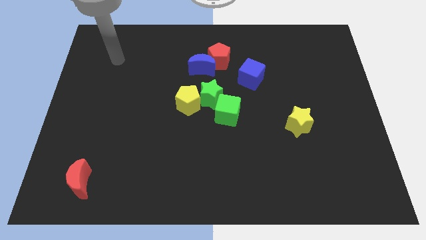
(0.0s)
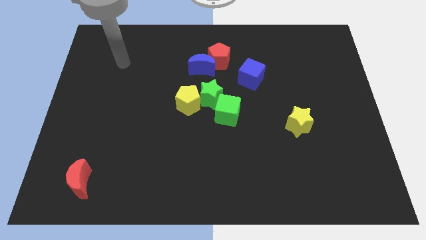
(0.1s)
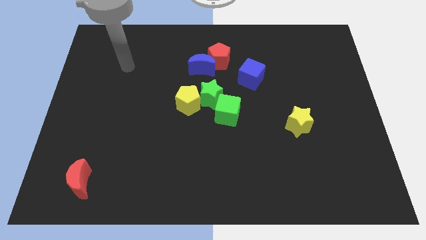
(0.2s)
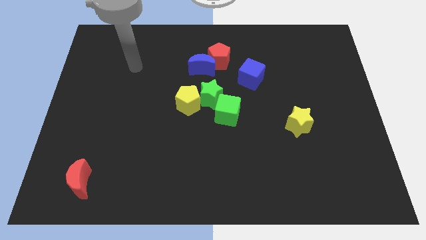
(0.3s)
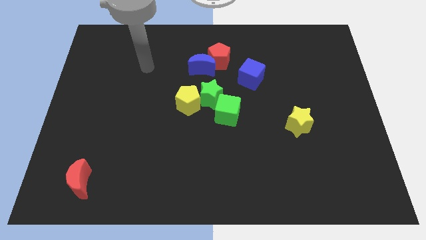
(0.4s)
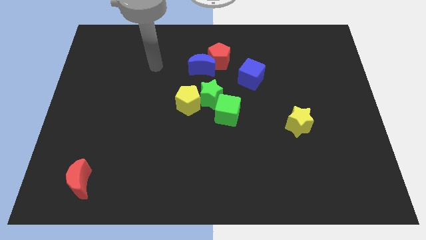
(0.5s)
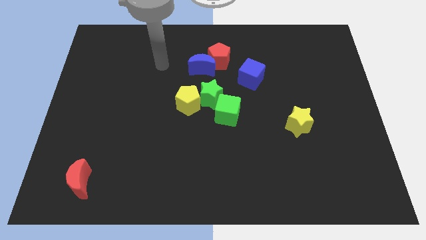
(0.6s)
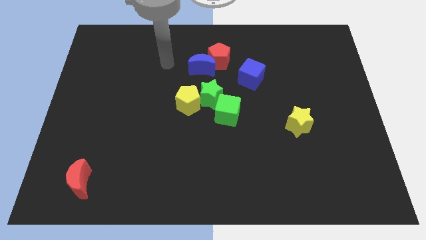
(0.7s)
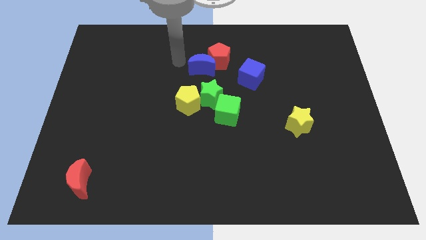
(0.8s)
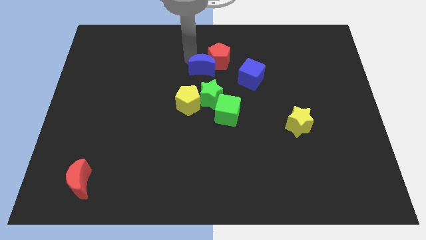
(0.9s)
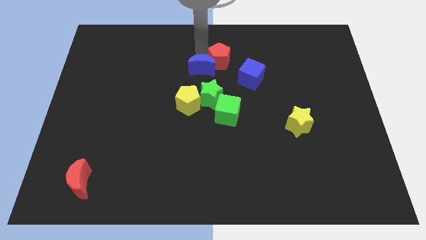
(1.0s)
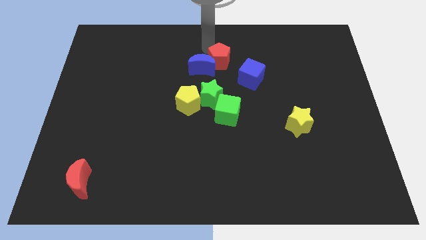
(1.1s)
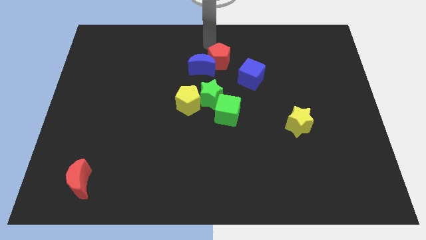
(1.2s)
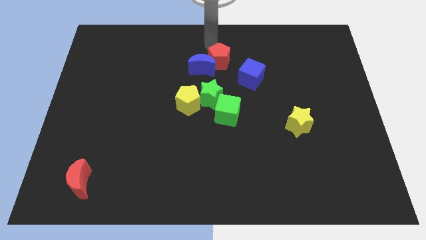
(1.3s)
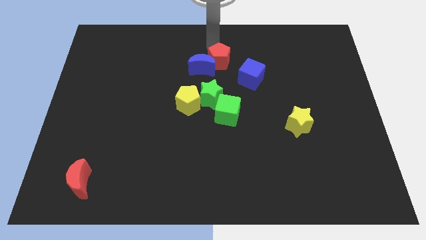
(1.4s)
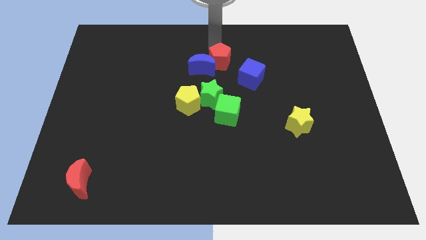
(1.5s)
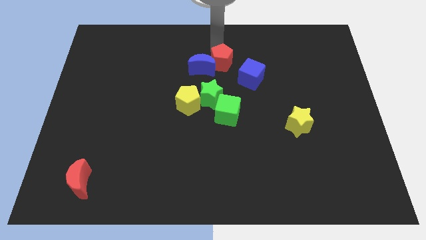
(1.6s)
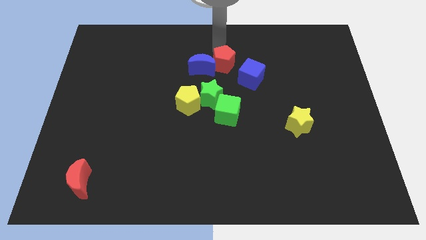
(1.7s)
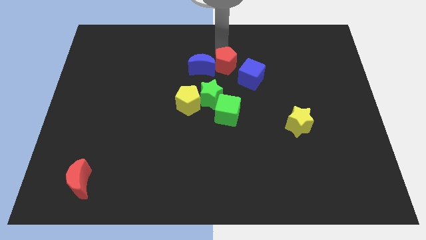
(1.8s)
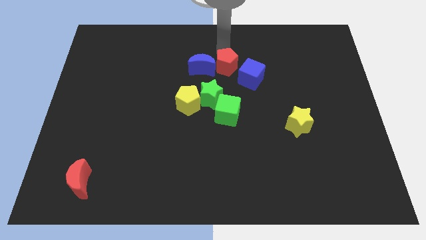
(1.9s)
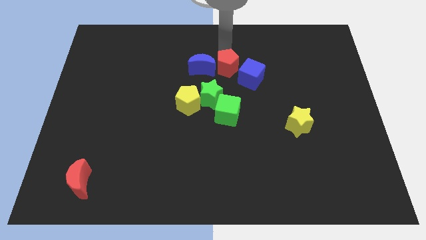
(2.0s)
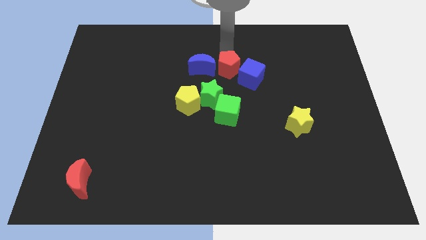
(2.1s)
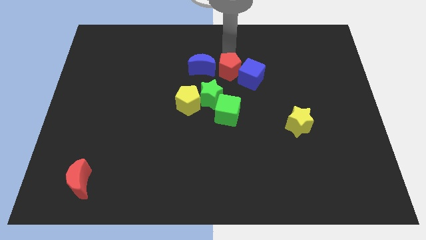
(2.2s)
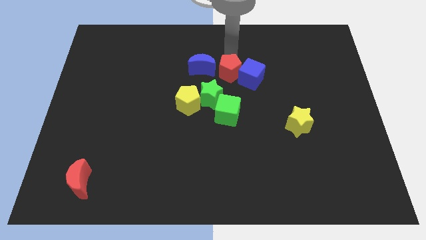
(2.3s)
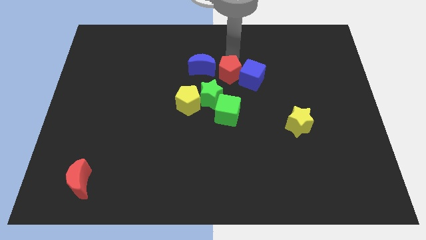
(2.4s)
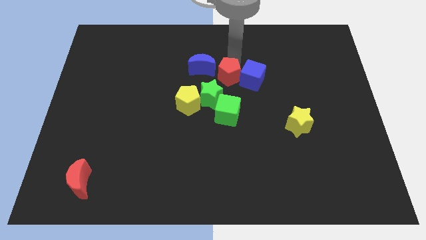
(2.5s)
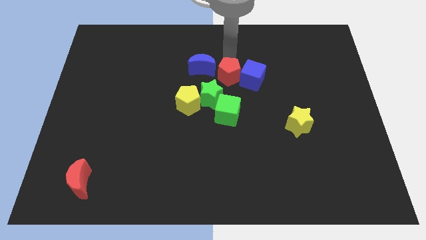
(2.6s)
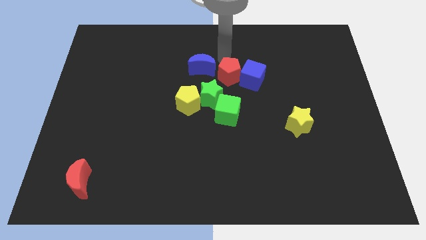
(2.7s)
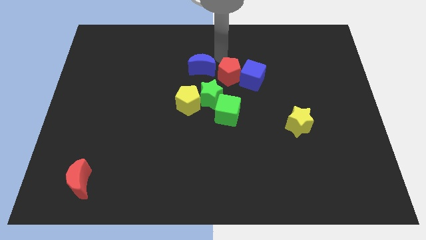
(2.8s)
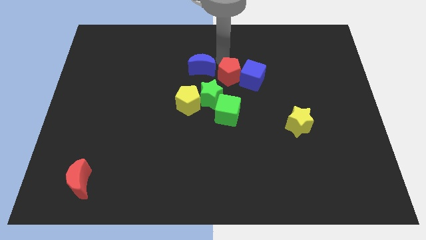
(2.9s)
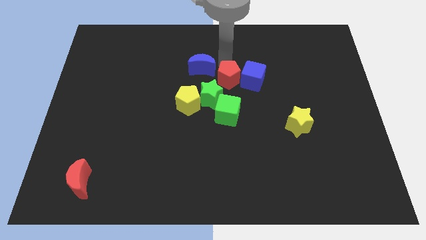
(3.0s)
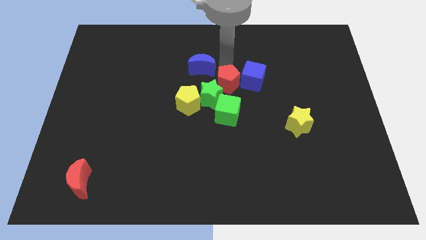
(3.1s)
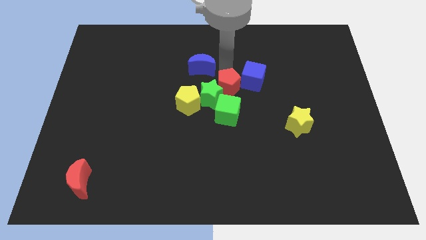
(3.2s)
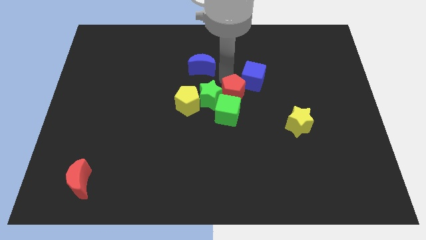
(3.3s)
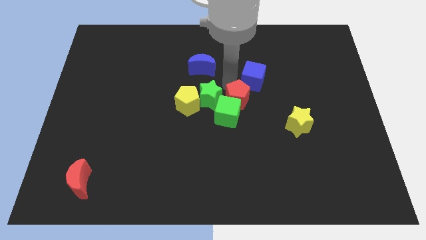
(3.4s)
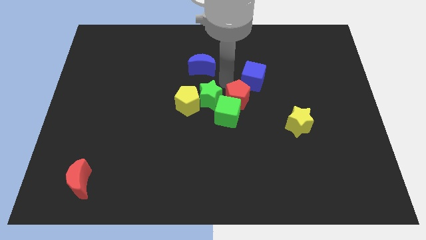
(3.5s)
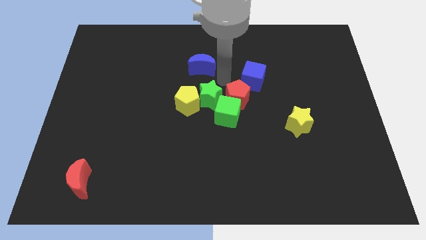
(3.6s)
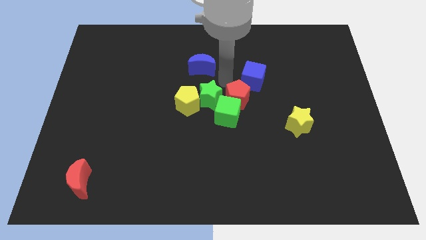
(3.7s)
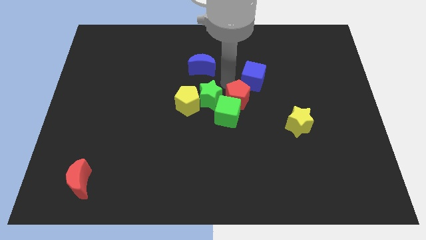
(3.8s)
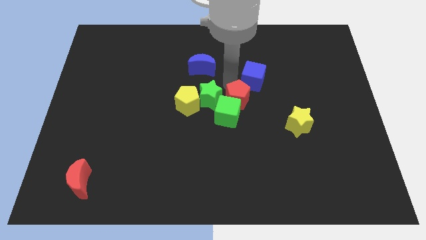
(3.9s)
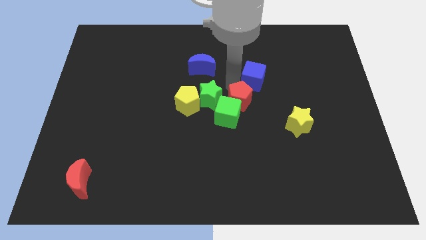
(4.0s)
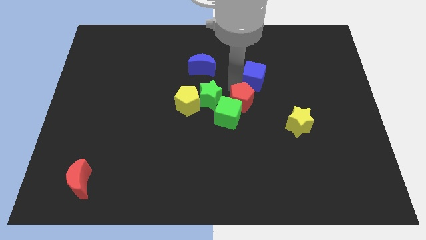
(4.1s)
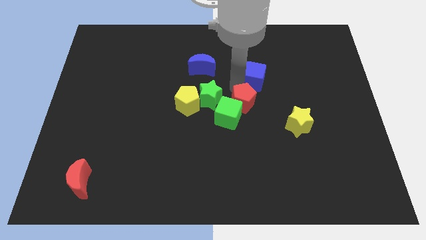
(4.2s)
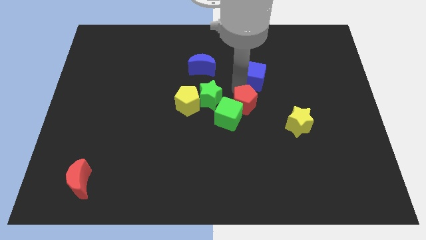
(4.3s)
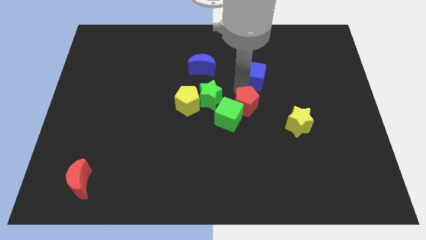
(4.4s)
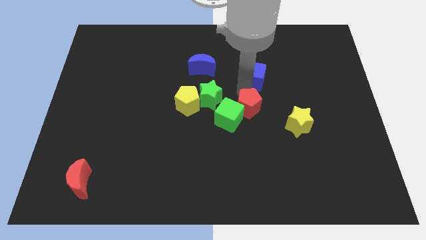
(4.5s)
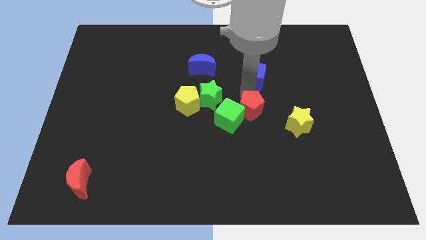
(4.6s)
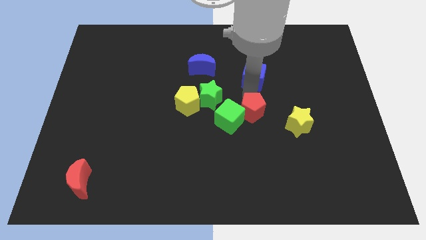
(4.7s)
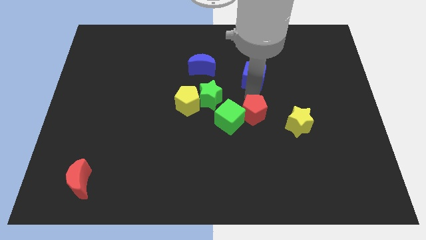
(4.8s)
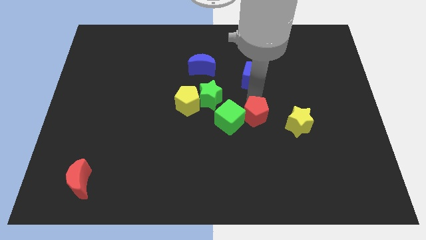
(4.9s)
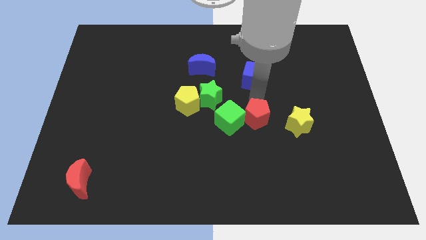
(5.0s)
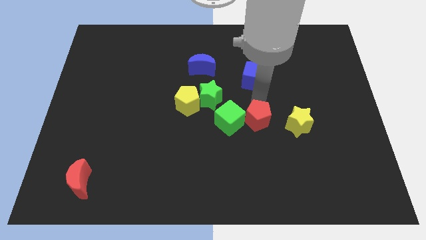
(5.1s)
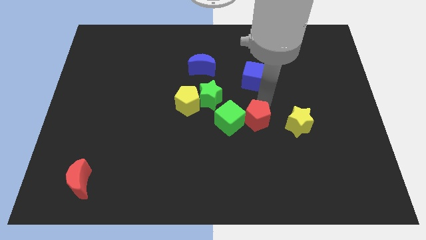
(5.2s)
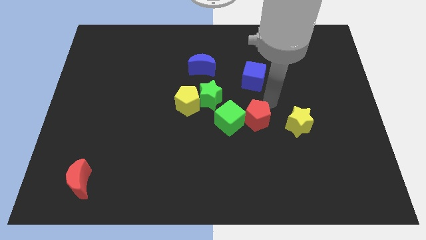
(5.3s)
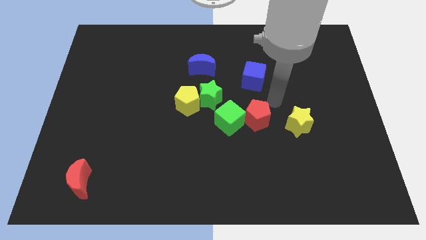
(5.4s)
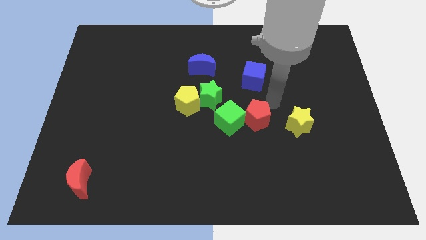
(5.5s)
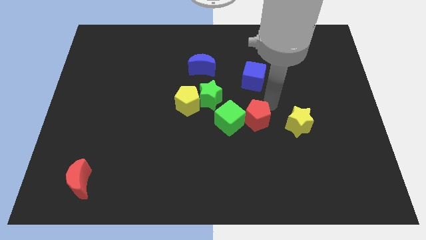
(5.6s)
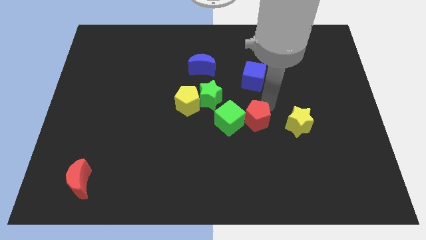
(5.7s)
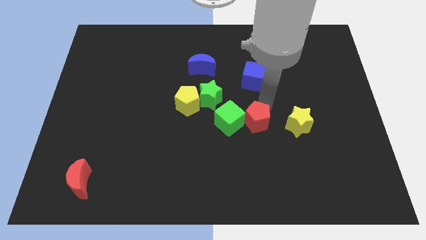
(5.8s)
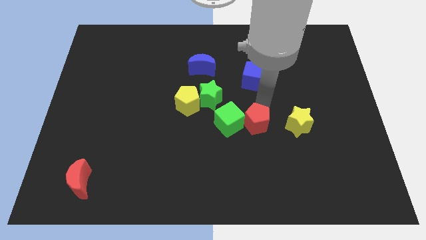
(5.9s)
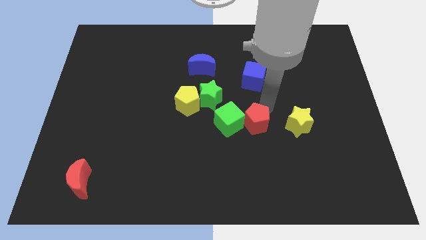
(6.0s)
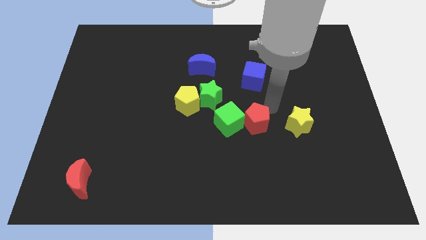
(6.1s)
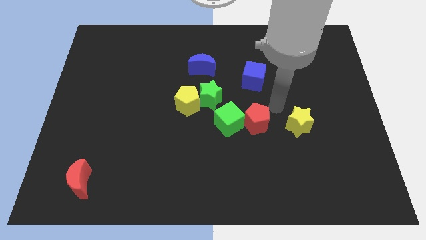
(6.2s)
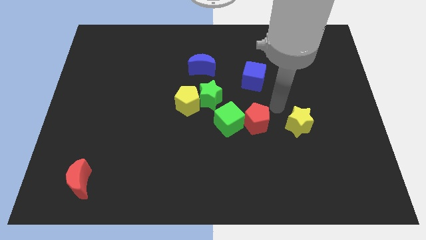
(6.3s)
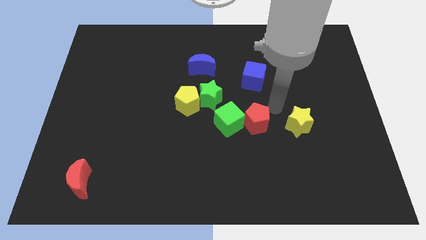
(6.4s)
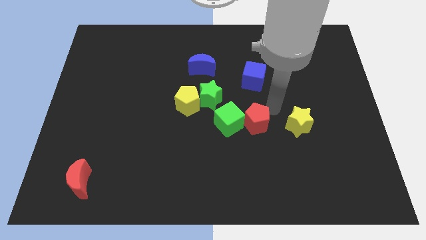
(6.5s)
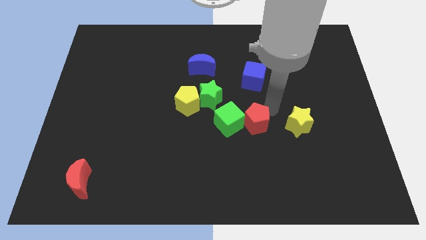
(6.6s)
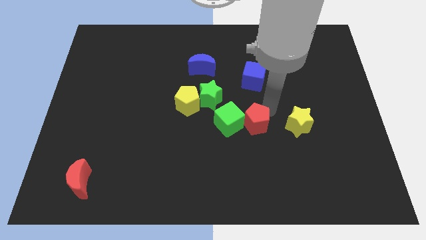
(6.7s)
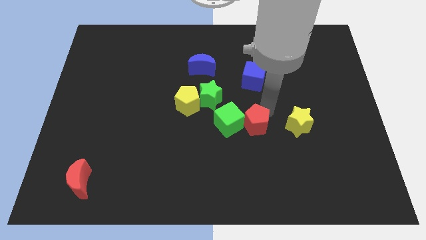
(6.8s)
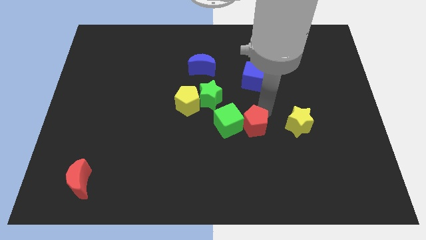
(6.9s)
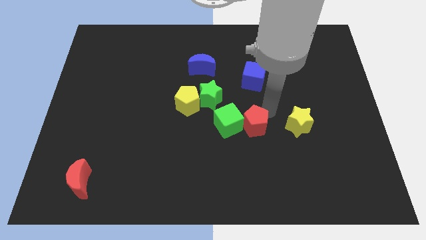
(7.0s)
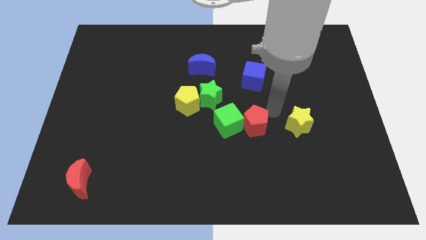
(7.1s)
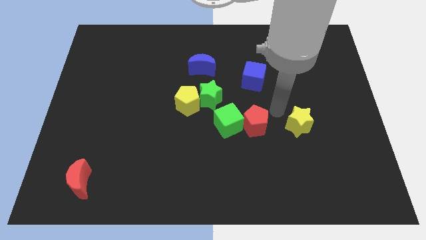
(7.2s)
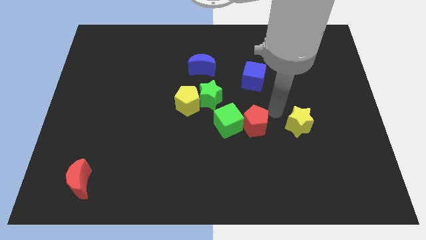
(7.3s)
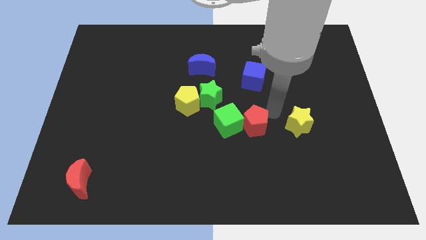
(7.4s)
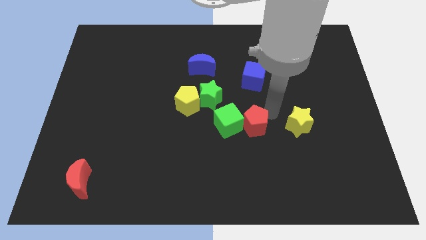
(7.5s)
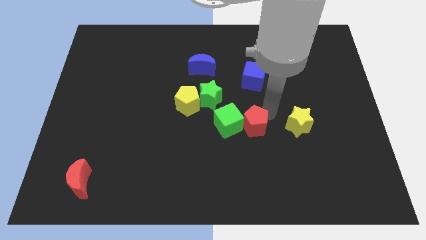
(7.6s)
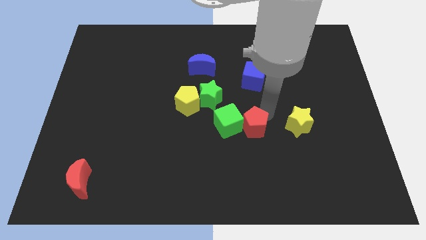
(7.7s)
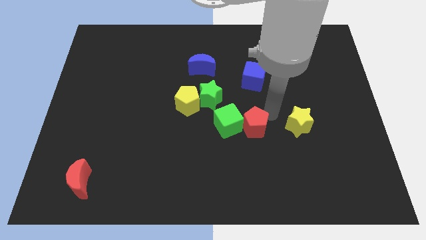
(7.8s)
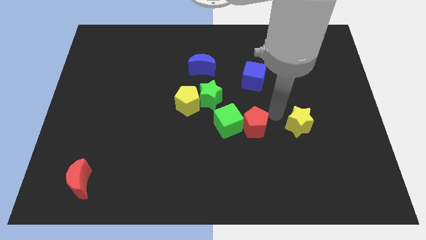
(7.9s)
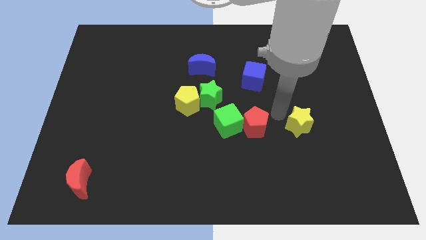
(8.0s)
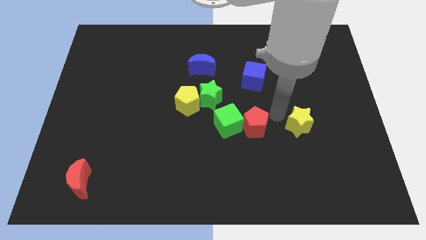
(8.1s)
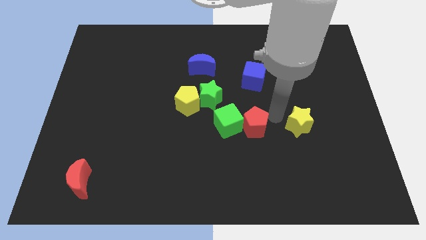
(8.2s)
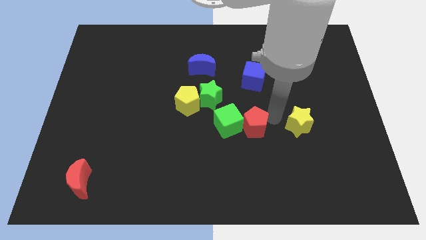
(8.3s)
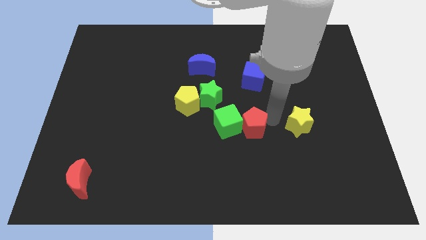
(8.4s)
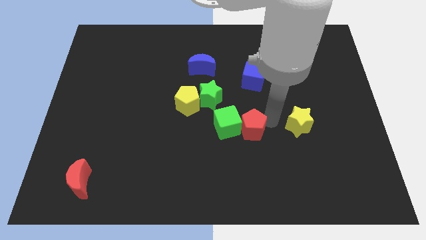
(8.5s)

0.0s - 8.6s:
push the red pentagon down

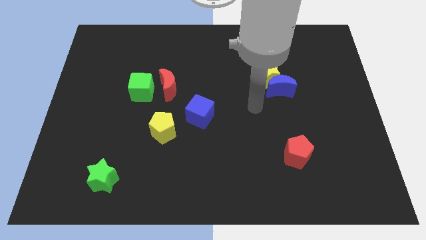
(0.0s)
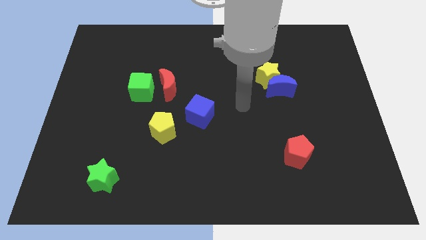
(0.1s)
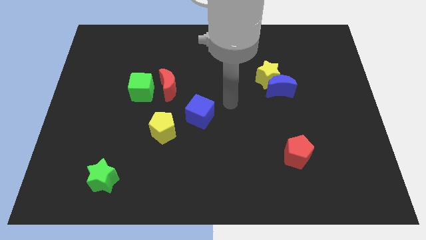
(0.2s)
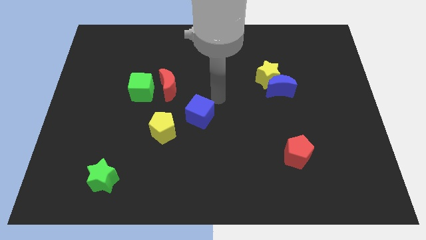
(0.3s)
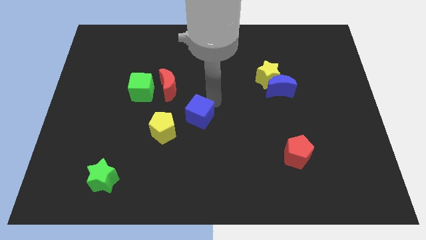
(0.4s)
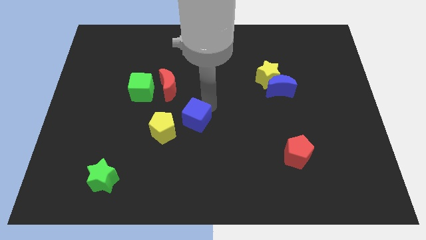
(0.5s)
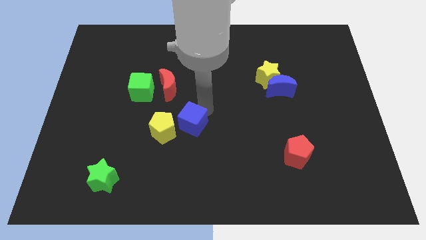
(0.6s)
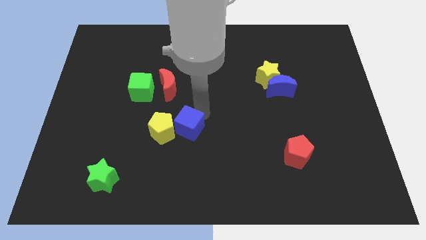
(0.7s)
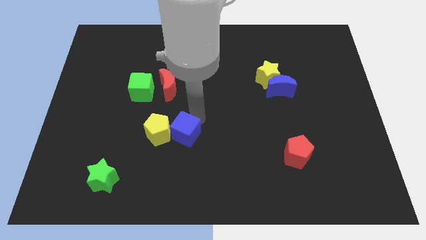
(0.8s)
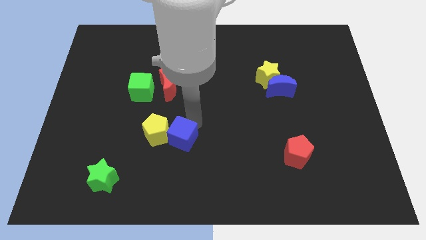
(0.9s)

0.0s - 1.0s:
move the blue cube somewhat down and then to the left
